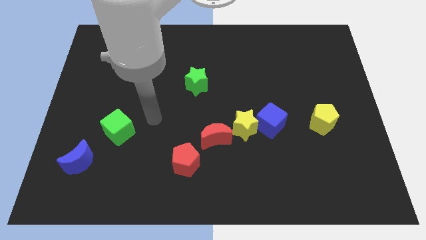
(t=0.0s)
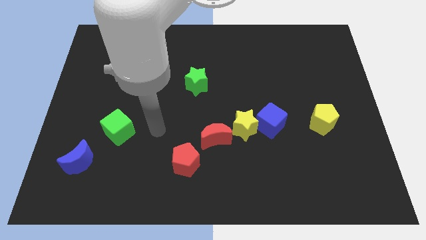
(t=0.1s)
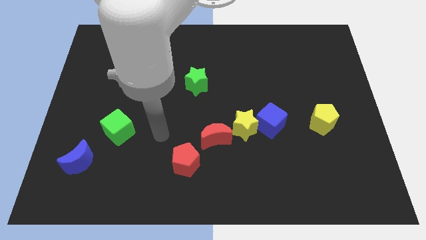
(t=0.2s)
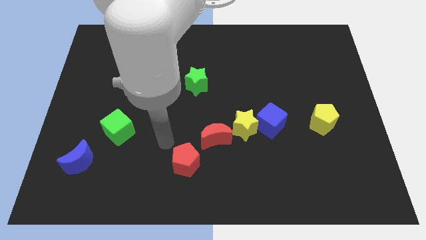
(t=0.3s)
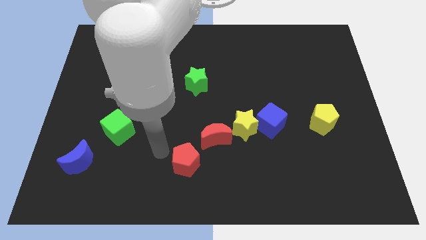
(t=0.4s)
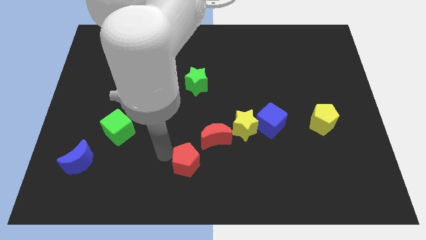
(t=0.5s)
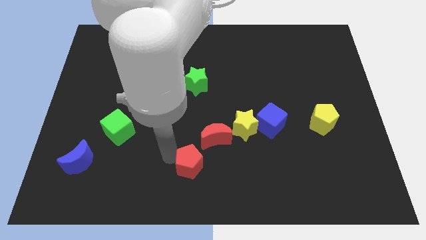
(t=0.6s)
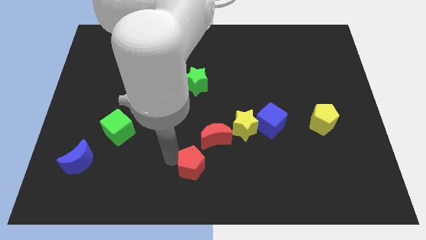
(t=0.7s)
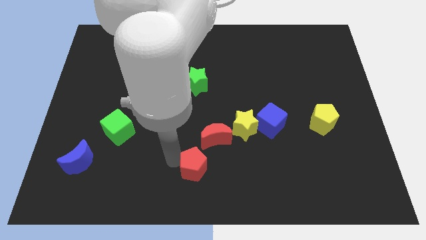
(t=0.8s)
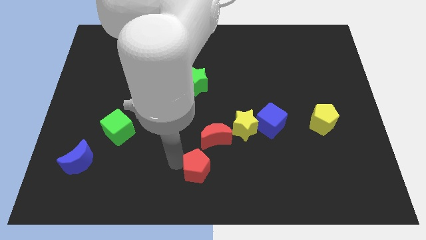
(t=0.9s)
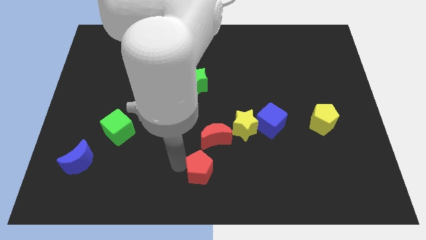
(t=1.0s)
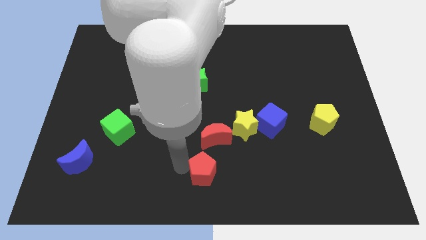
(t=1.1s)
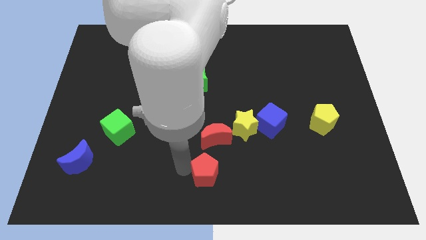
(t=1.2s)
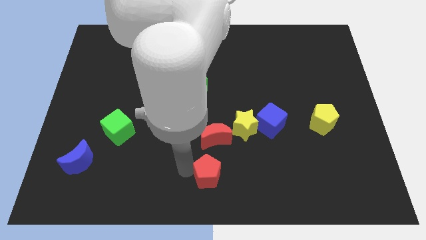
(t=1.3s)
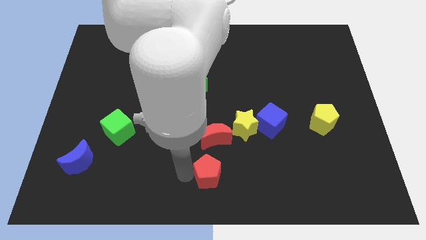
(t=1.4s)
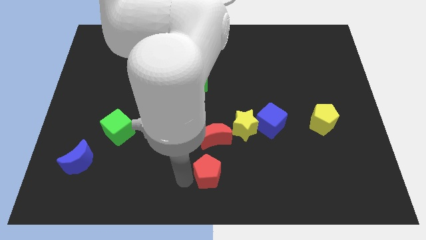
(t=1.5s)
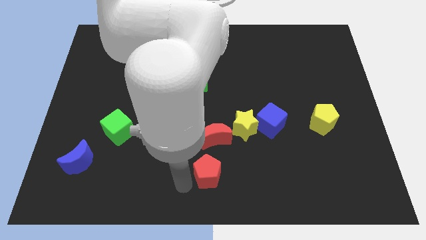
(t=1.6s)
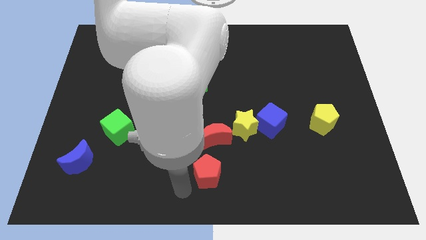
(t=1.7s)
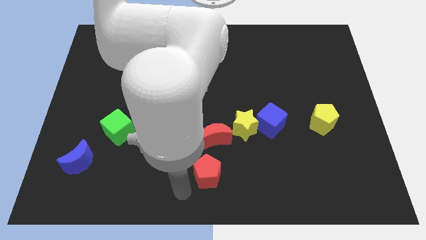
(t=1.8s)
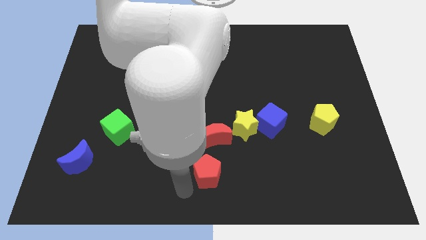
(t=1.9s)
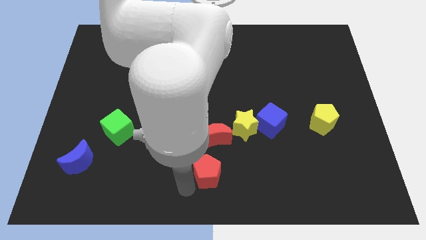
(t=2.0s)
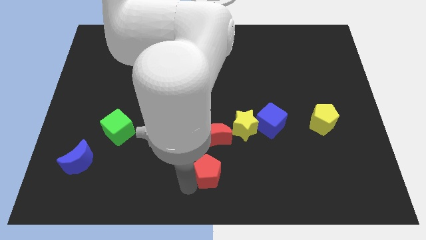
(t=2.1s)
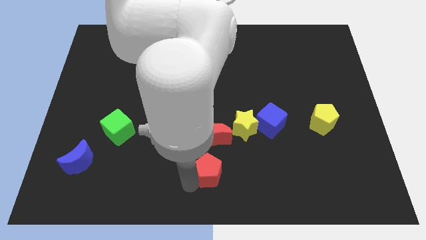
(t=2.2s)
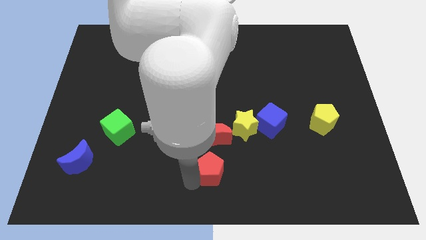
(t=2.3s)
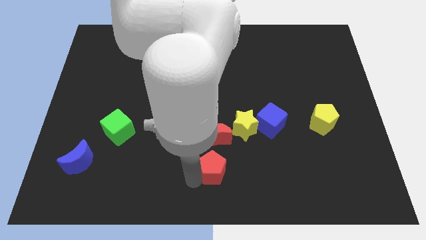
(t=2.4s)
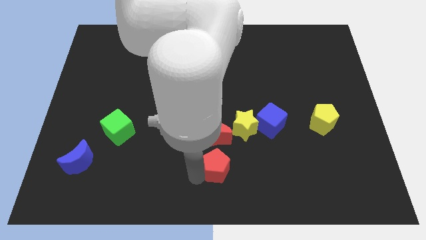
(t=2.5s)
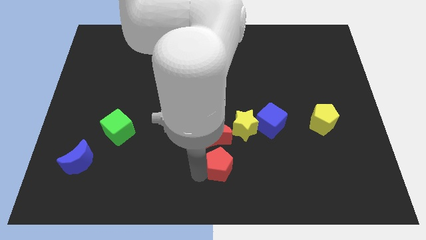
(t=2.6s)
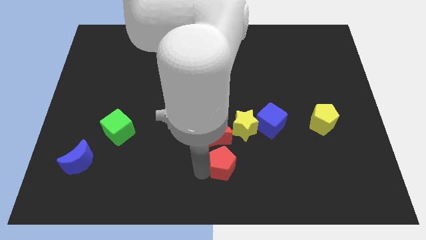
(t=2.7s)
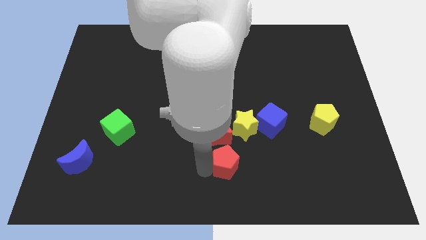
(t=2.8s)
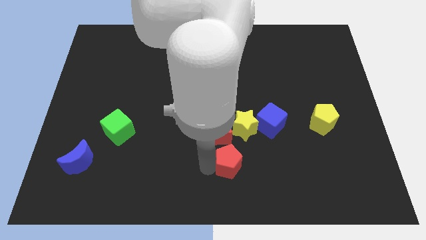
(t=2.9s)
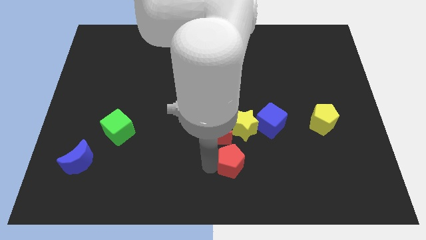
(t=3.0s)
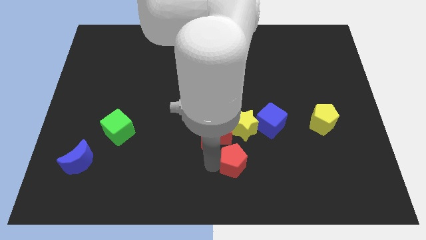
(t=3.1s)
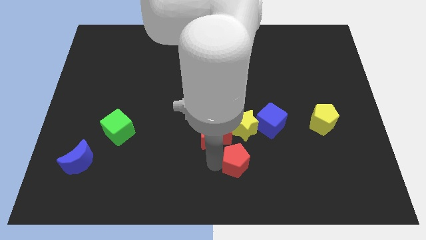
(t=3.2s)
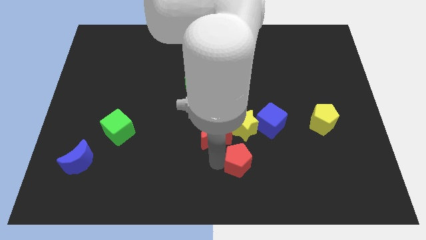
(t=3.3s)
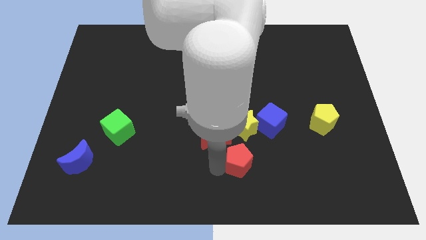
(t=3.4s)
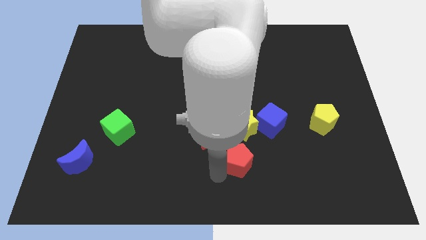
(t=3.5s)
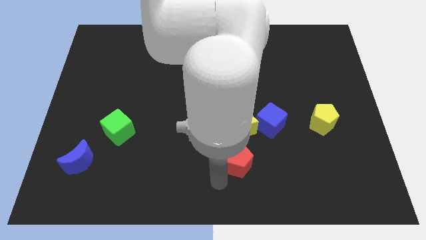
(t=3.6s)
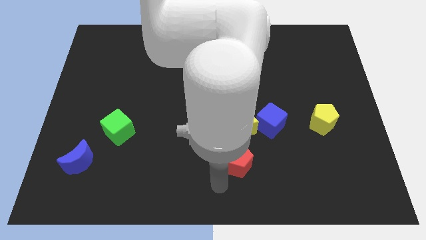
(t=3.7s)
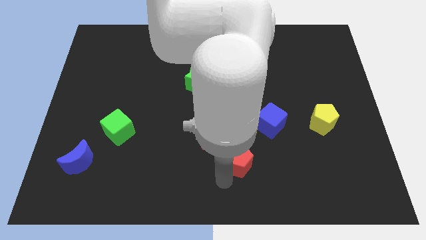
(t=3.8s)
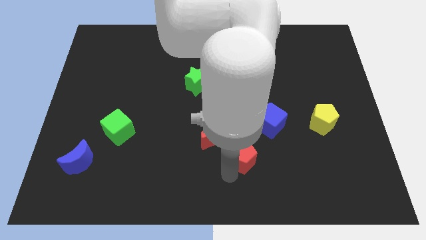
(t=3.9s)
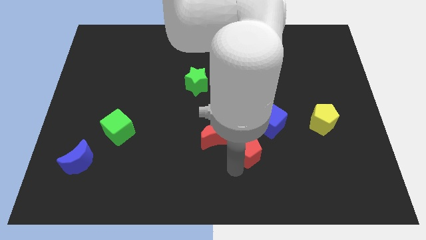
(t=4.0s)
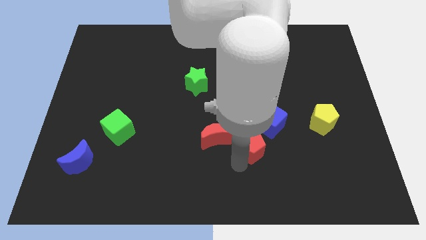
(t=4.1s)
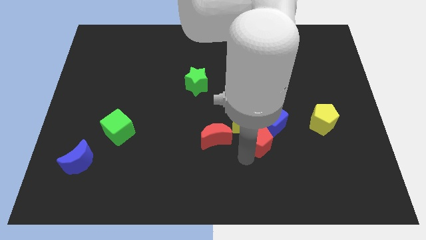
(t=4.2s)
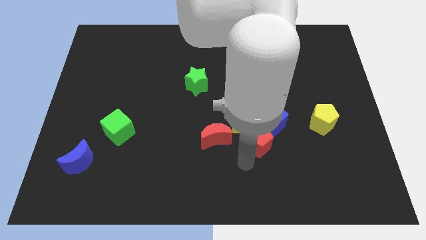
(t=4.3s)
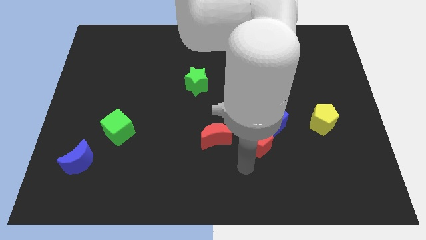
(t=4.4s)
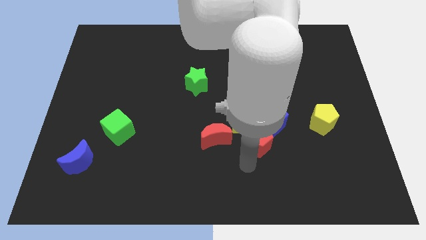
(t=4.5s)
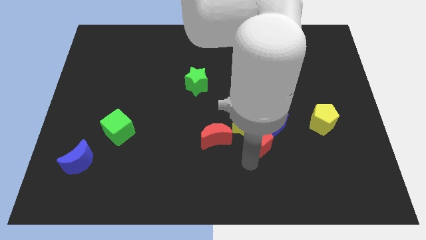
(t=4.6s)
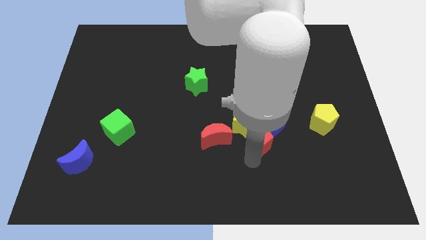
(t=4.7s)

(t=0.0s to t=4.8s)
put the red pentagon to the blue cube

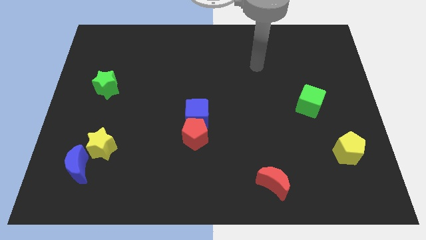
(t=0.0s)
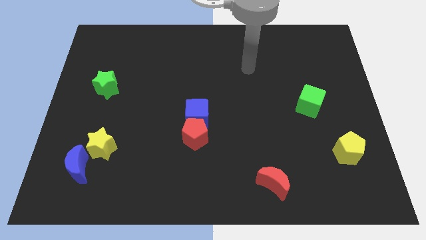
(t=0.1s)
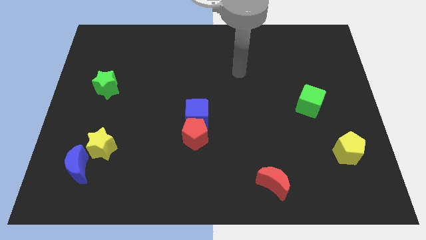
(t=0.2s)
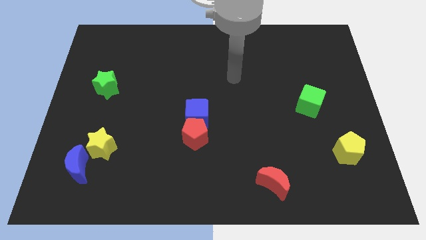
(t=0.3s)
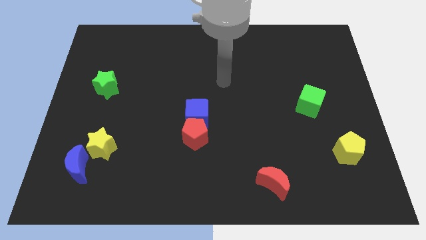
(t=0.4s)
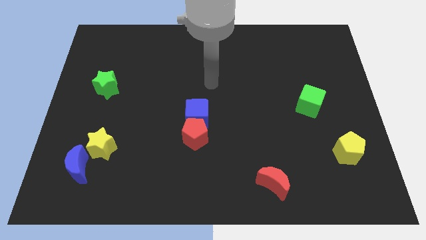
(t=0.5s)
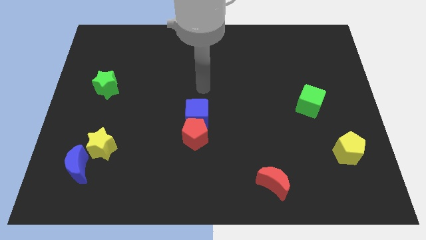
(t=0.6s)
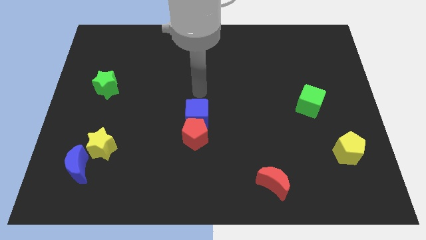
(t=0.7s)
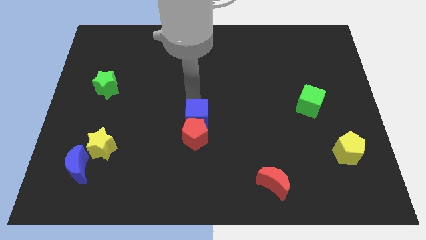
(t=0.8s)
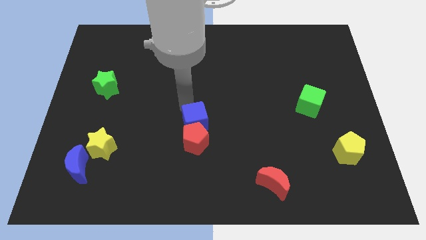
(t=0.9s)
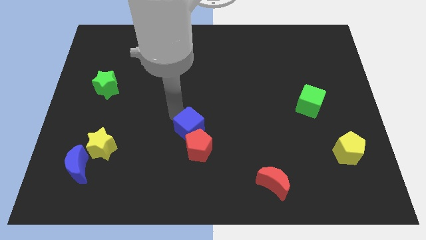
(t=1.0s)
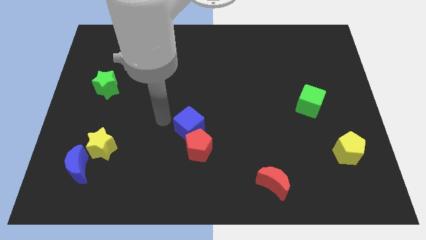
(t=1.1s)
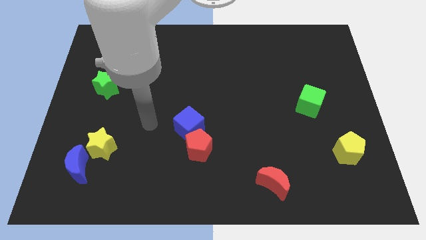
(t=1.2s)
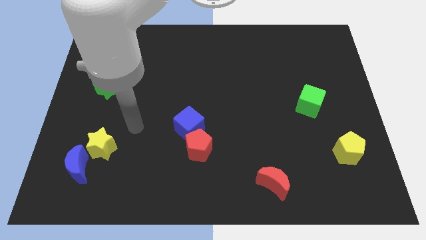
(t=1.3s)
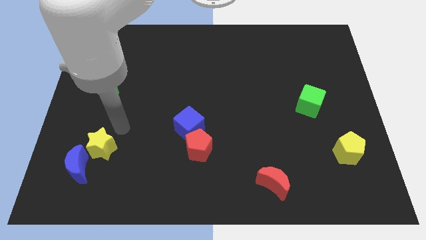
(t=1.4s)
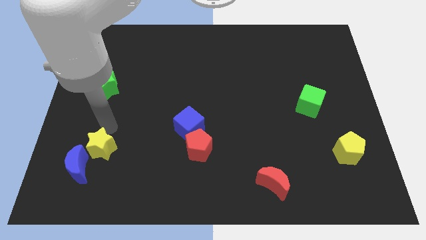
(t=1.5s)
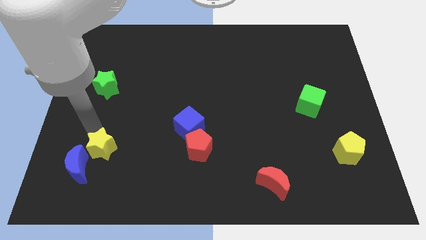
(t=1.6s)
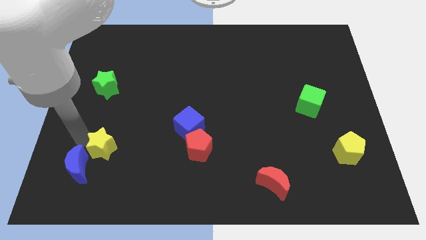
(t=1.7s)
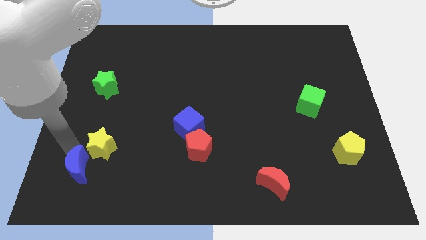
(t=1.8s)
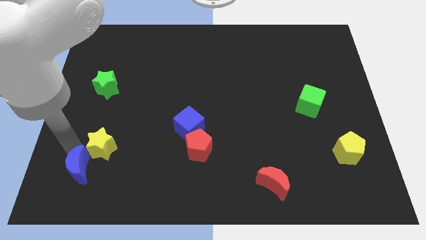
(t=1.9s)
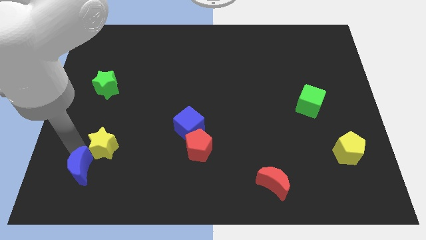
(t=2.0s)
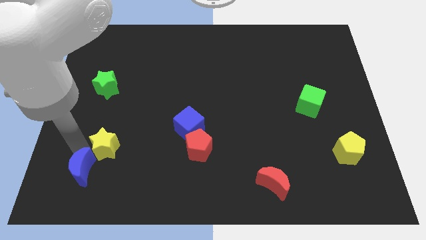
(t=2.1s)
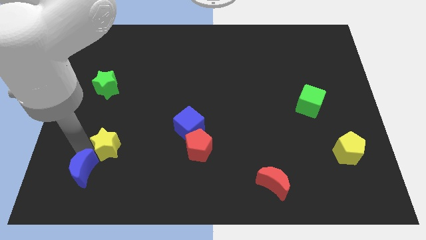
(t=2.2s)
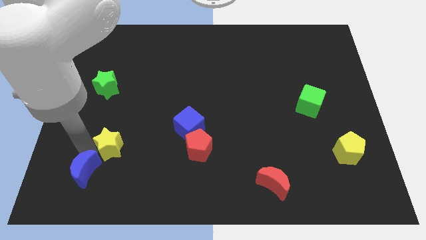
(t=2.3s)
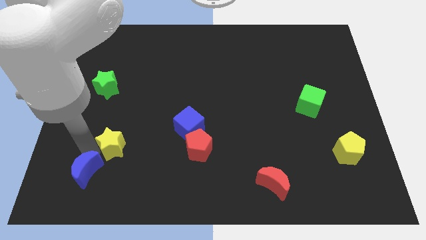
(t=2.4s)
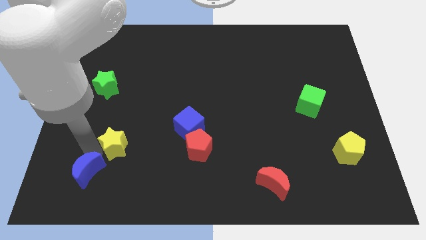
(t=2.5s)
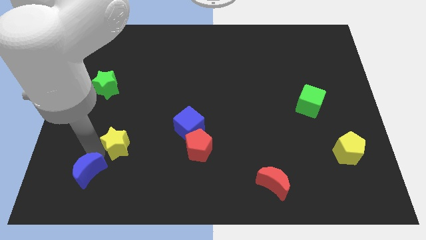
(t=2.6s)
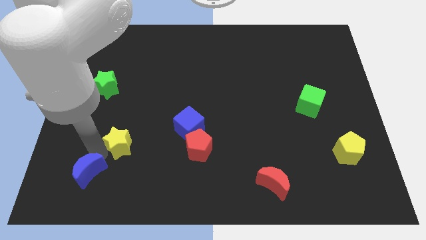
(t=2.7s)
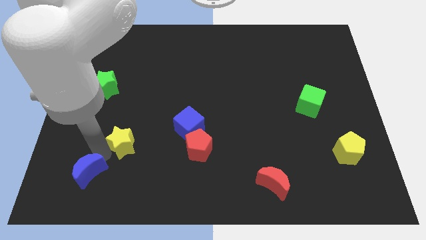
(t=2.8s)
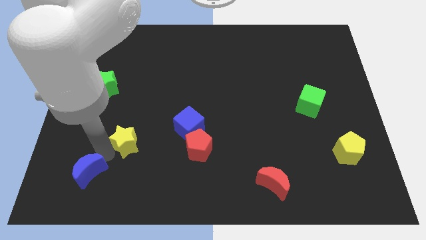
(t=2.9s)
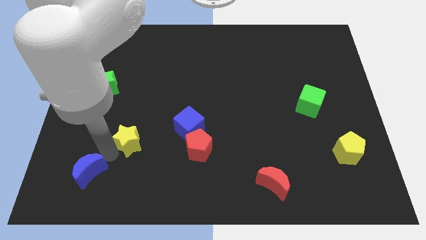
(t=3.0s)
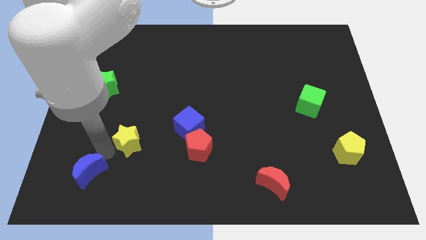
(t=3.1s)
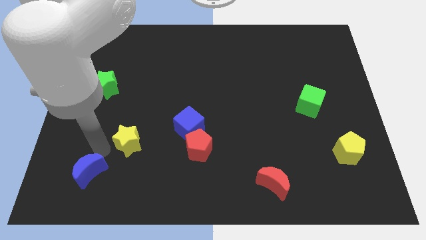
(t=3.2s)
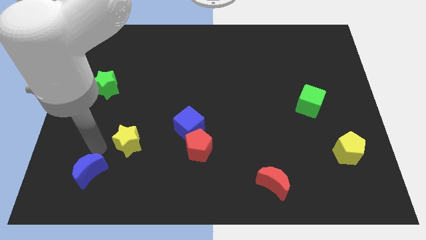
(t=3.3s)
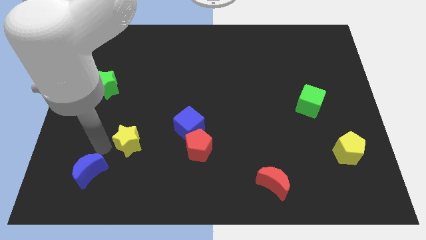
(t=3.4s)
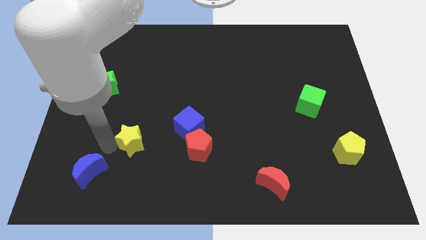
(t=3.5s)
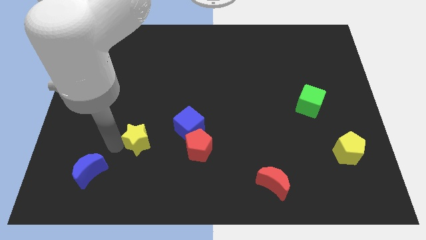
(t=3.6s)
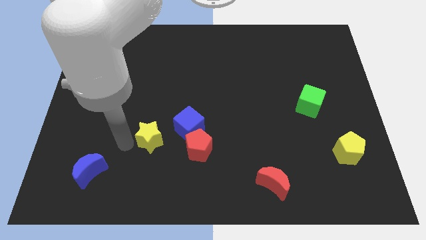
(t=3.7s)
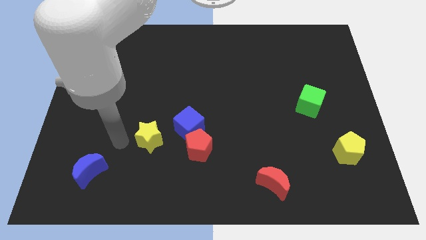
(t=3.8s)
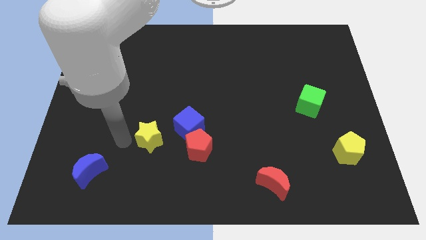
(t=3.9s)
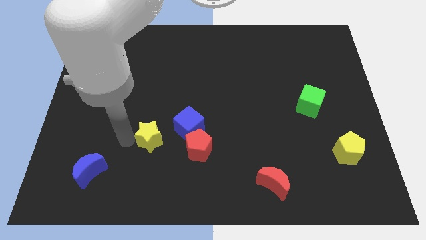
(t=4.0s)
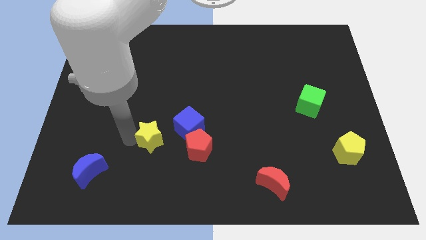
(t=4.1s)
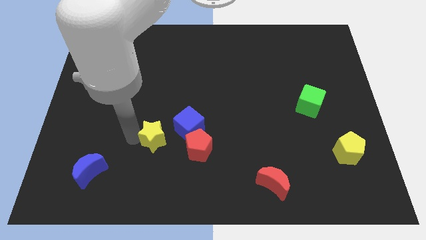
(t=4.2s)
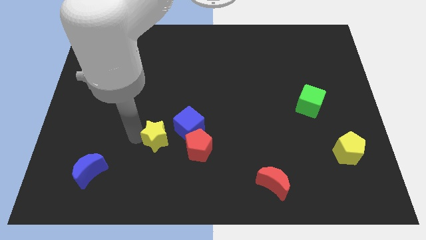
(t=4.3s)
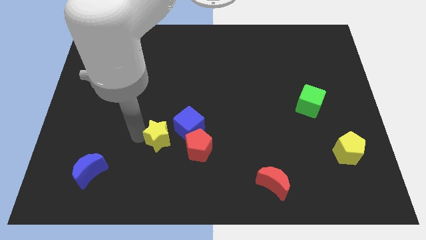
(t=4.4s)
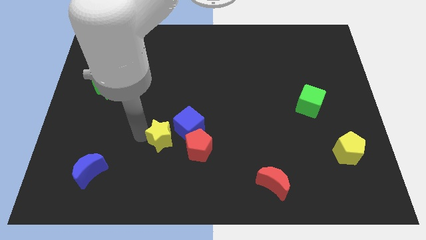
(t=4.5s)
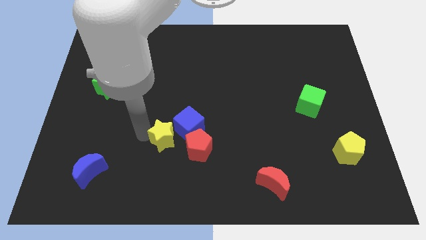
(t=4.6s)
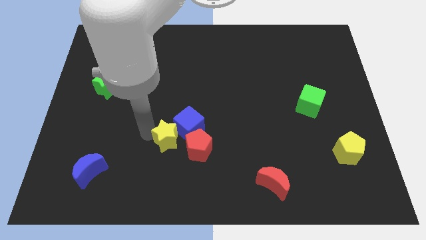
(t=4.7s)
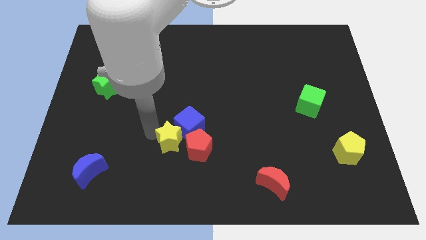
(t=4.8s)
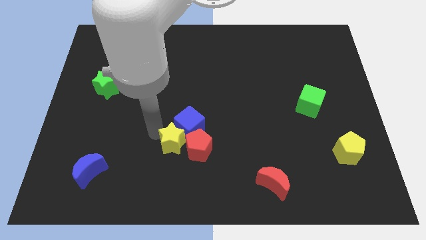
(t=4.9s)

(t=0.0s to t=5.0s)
move the yellow star towards the red pentagon
